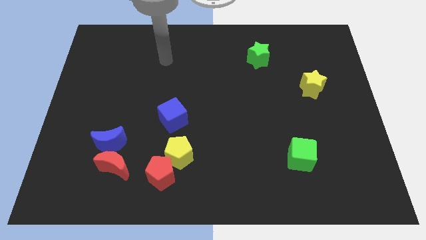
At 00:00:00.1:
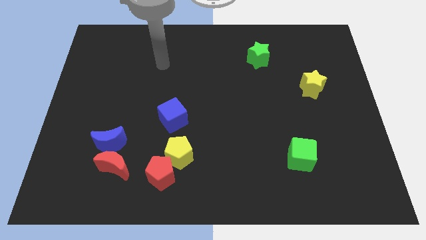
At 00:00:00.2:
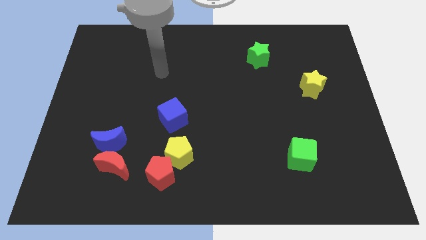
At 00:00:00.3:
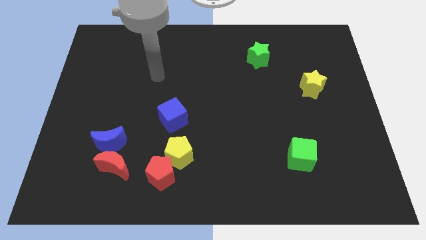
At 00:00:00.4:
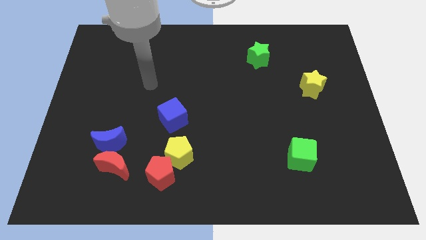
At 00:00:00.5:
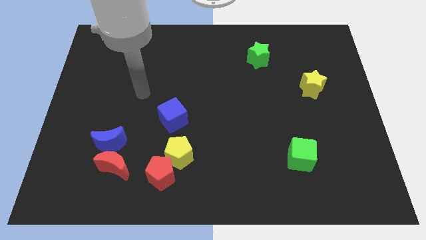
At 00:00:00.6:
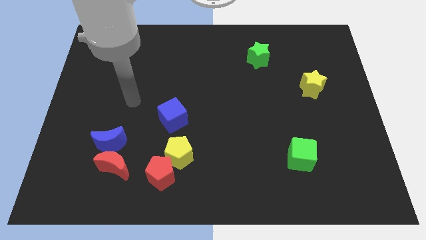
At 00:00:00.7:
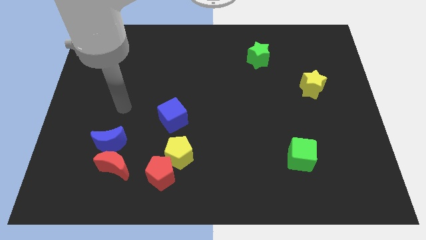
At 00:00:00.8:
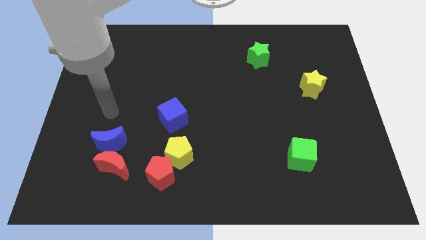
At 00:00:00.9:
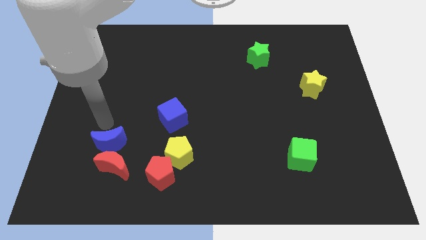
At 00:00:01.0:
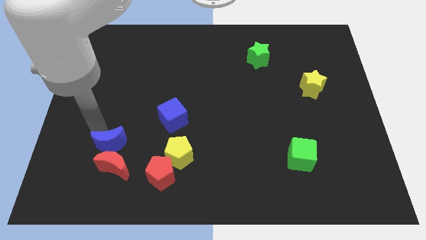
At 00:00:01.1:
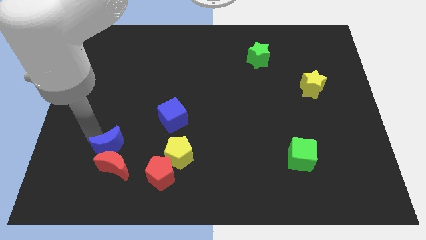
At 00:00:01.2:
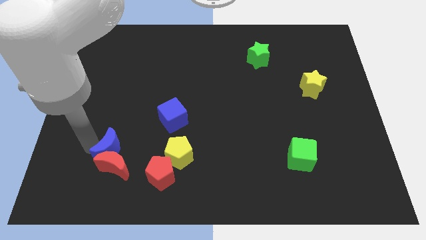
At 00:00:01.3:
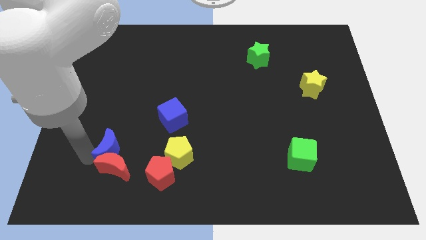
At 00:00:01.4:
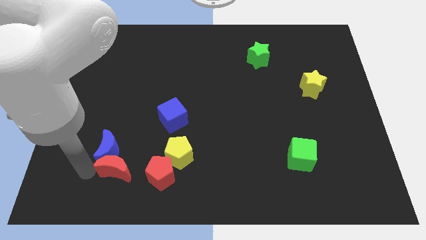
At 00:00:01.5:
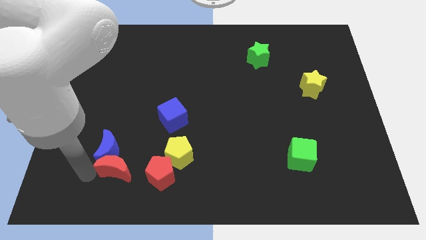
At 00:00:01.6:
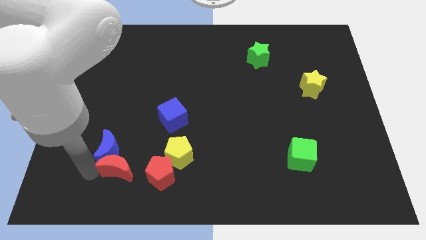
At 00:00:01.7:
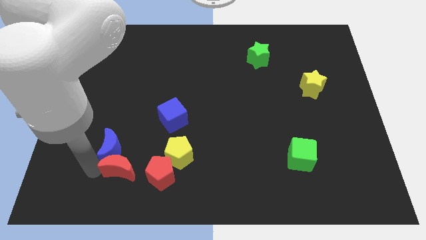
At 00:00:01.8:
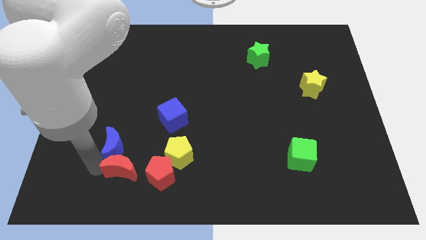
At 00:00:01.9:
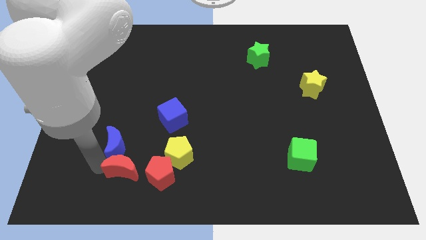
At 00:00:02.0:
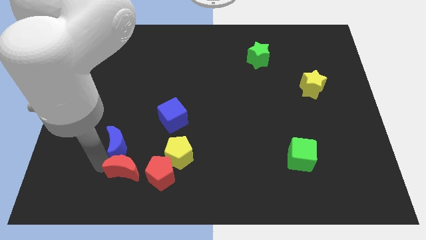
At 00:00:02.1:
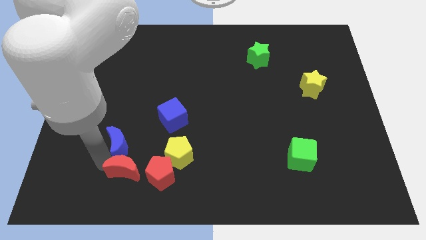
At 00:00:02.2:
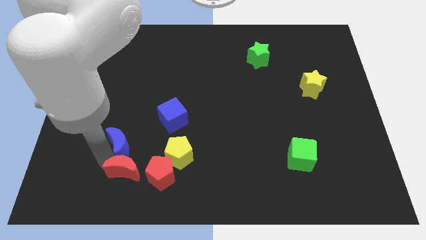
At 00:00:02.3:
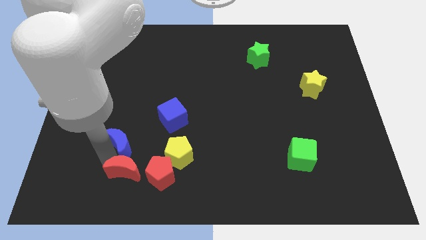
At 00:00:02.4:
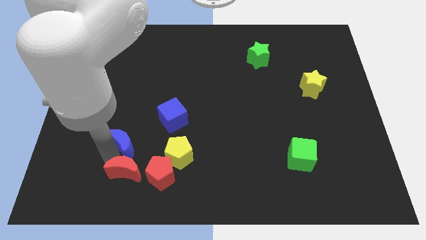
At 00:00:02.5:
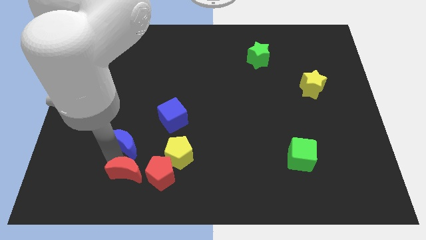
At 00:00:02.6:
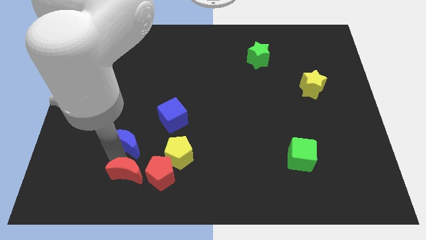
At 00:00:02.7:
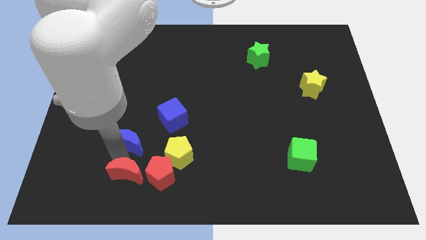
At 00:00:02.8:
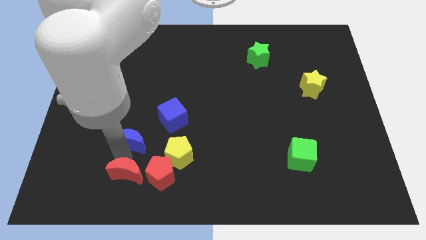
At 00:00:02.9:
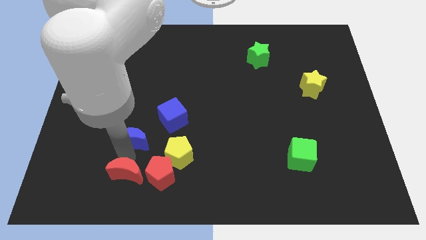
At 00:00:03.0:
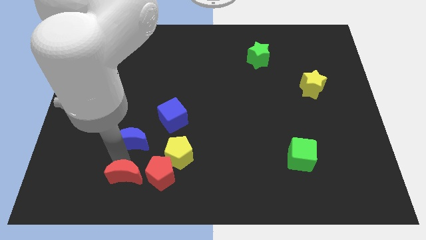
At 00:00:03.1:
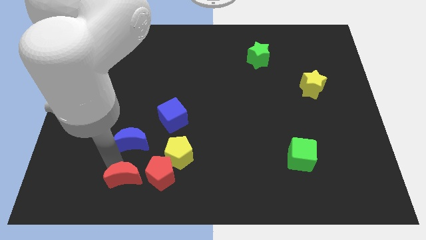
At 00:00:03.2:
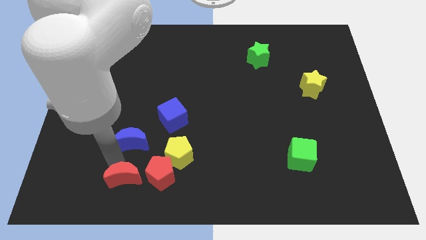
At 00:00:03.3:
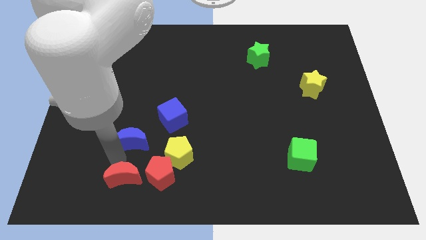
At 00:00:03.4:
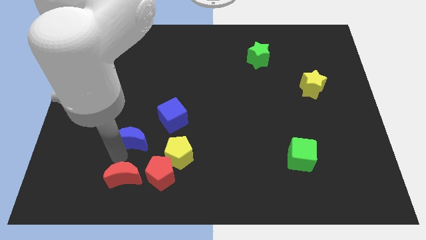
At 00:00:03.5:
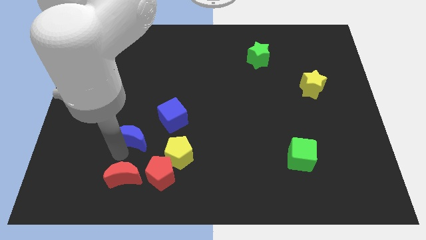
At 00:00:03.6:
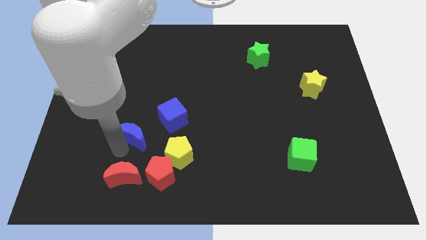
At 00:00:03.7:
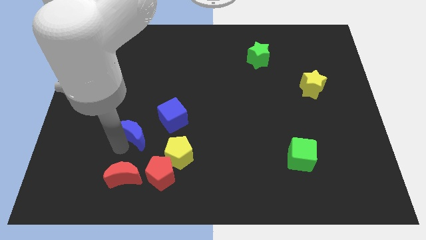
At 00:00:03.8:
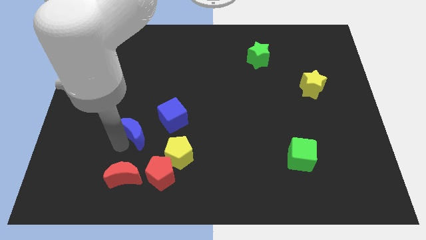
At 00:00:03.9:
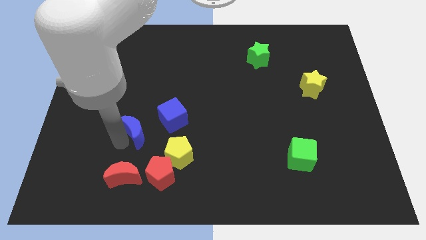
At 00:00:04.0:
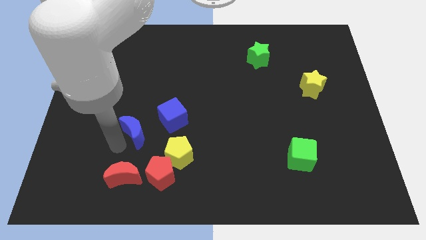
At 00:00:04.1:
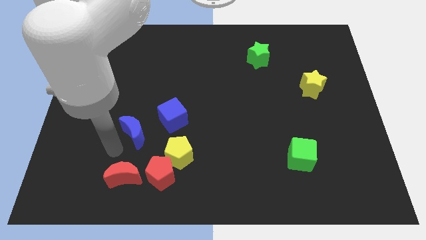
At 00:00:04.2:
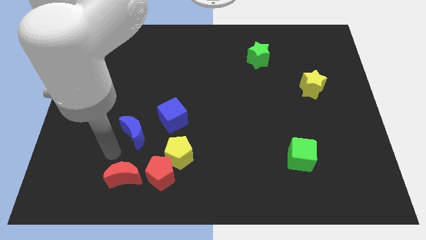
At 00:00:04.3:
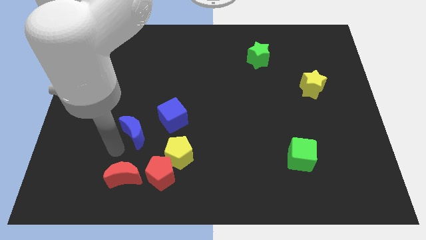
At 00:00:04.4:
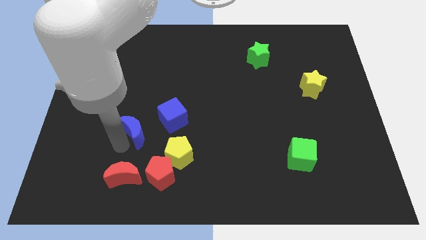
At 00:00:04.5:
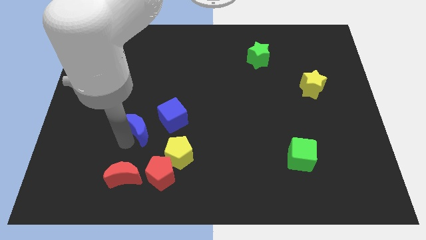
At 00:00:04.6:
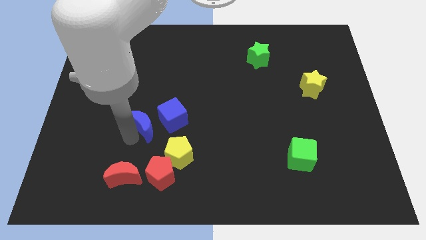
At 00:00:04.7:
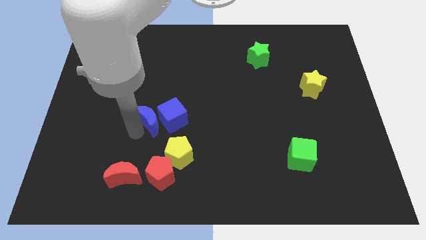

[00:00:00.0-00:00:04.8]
move the blue moon towards the blue cube

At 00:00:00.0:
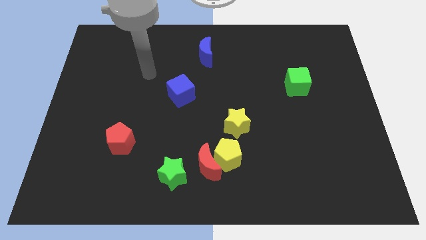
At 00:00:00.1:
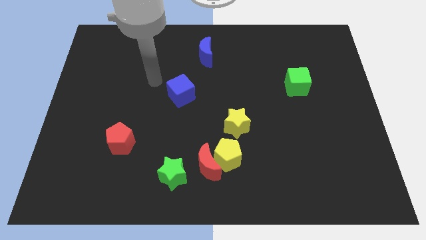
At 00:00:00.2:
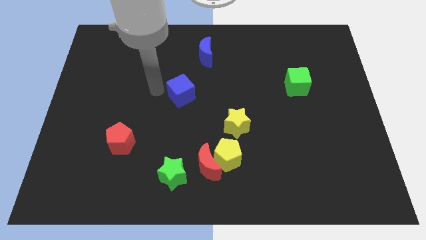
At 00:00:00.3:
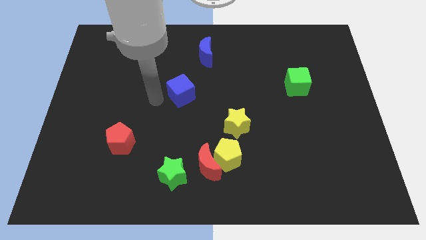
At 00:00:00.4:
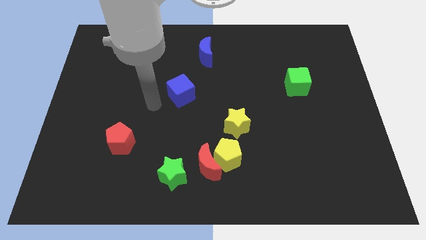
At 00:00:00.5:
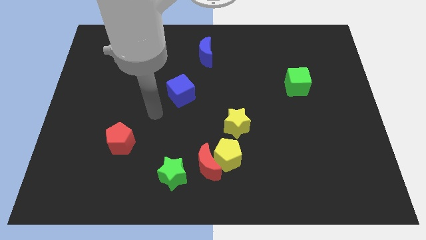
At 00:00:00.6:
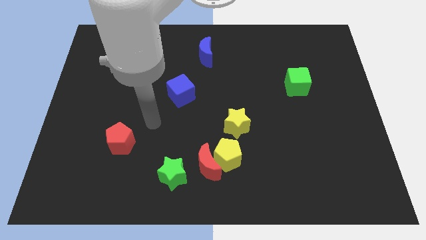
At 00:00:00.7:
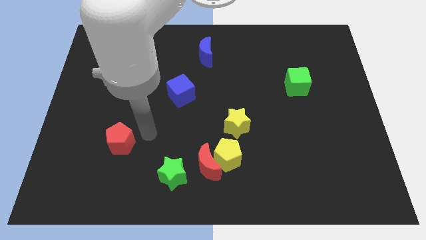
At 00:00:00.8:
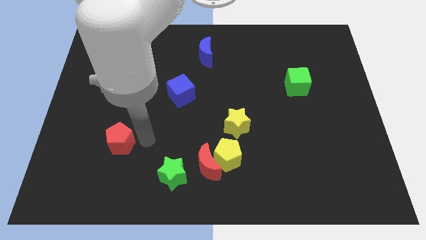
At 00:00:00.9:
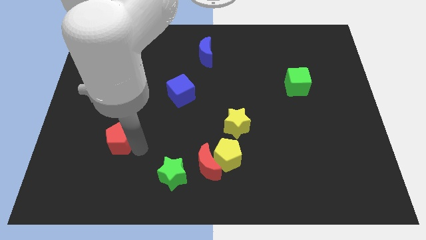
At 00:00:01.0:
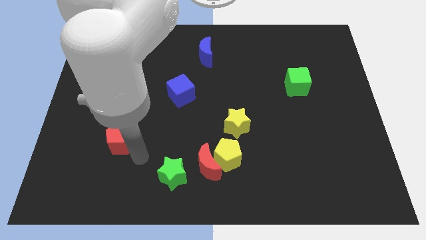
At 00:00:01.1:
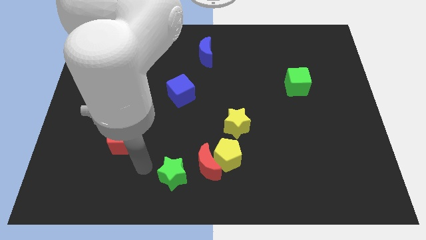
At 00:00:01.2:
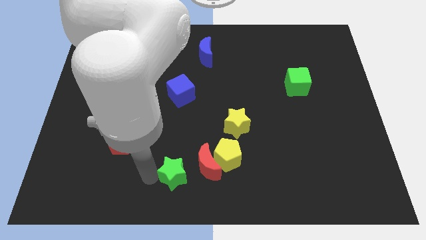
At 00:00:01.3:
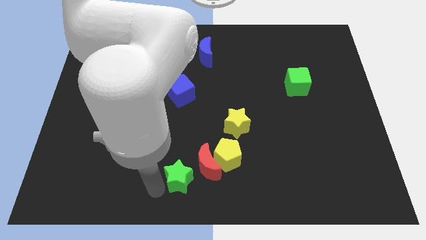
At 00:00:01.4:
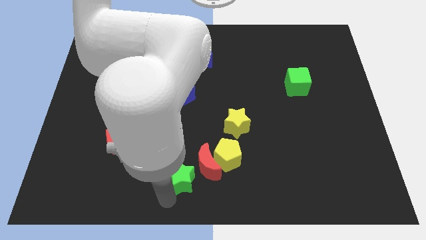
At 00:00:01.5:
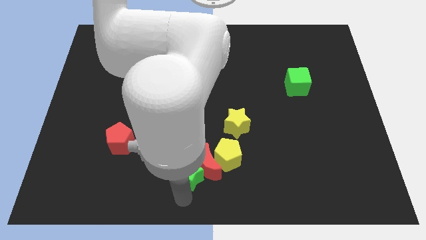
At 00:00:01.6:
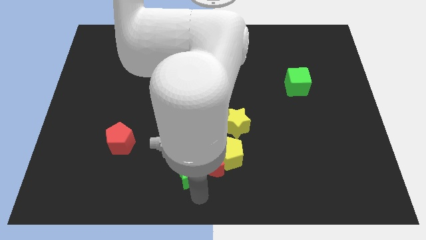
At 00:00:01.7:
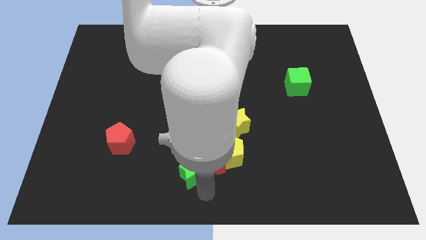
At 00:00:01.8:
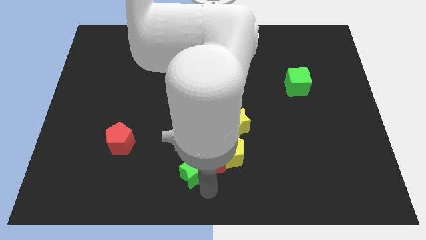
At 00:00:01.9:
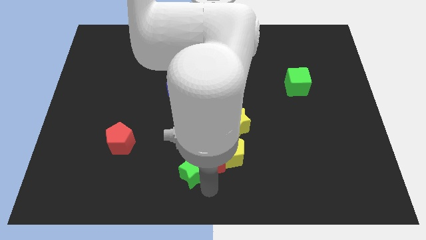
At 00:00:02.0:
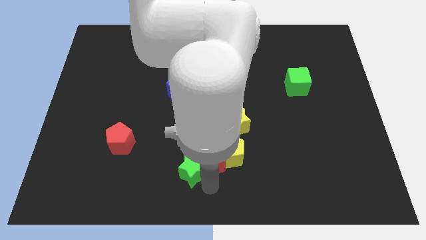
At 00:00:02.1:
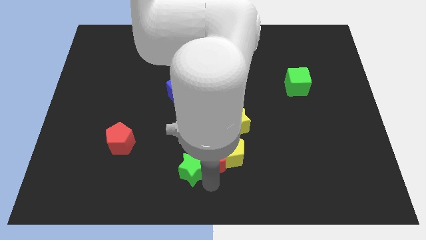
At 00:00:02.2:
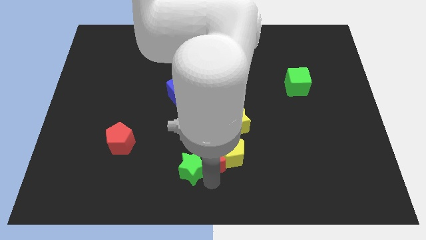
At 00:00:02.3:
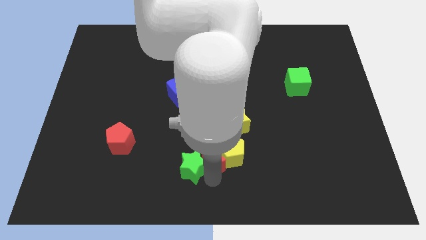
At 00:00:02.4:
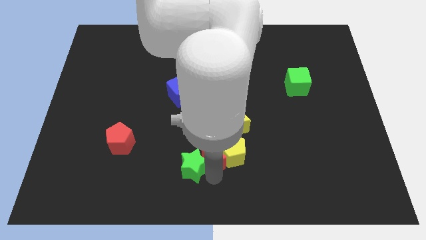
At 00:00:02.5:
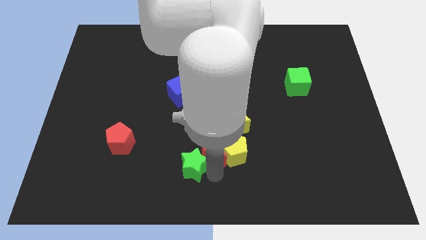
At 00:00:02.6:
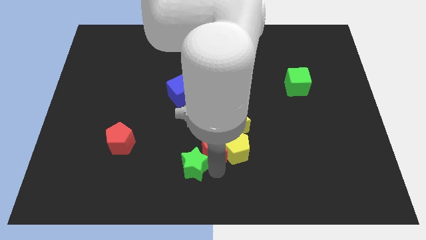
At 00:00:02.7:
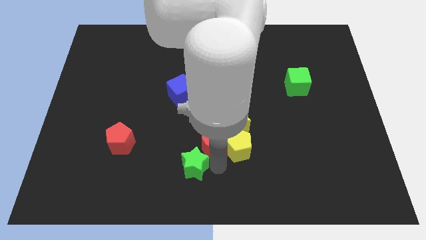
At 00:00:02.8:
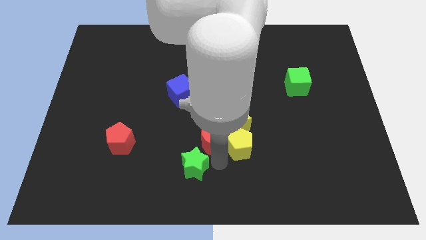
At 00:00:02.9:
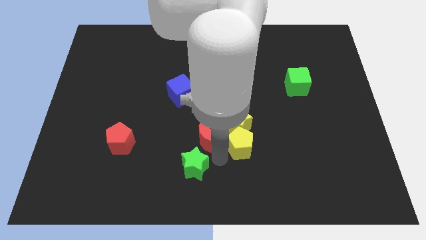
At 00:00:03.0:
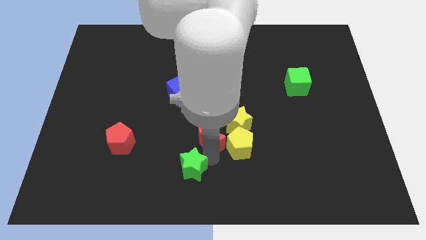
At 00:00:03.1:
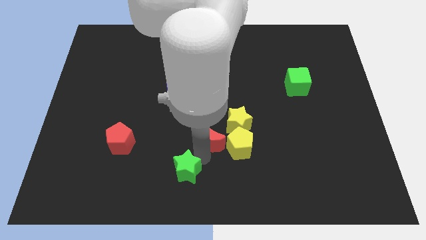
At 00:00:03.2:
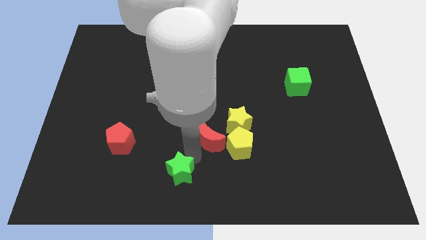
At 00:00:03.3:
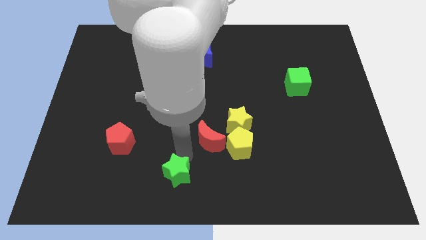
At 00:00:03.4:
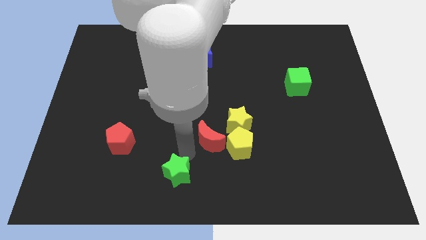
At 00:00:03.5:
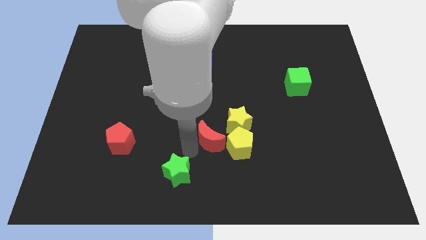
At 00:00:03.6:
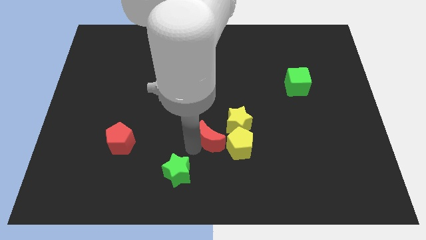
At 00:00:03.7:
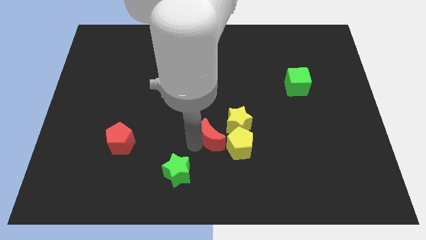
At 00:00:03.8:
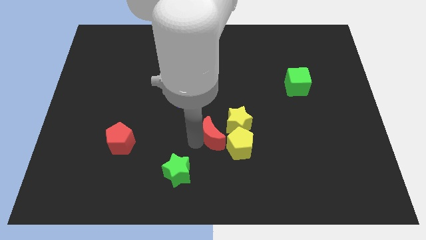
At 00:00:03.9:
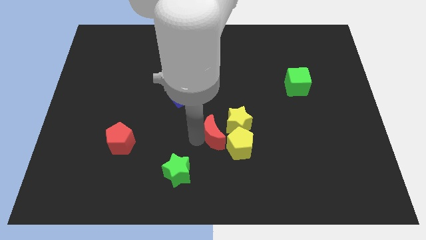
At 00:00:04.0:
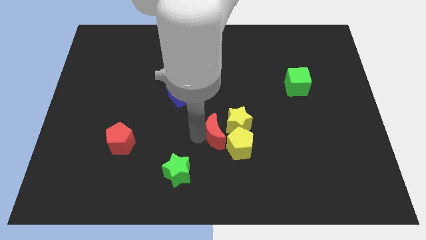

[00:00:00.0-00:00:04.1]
put the red moon close to the yellow star
